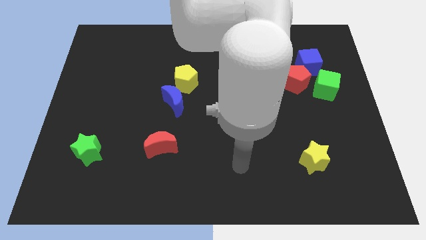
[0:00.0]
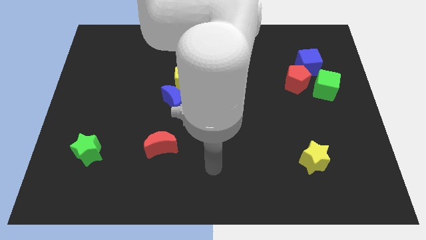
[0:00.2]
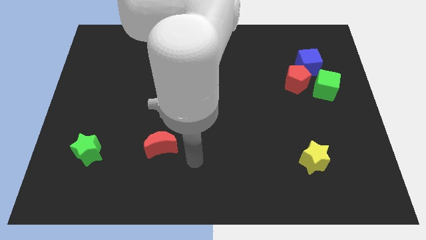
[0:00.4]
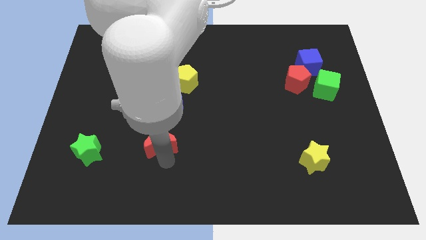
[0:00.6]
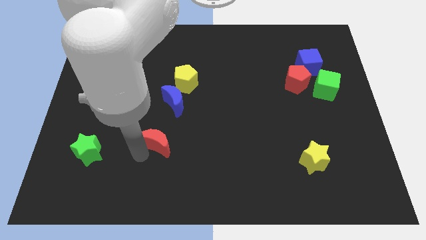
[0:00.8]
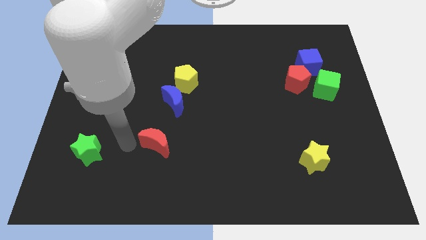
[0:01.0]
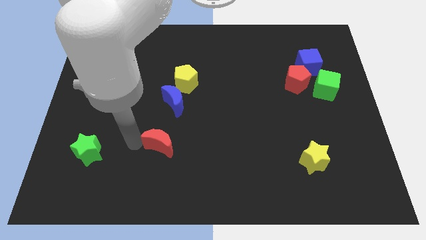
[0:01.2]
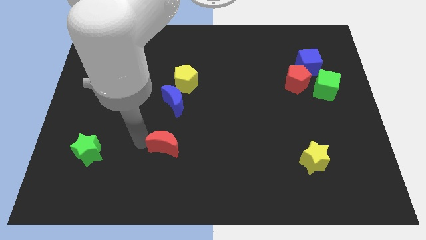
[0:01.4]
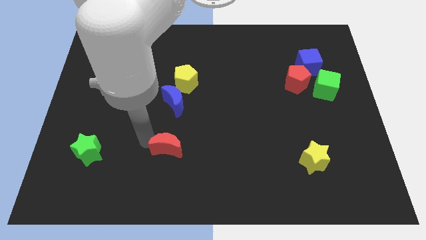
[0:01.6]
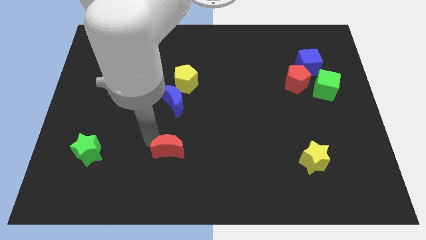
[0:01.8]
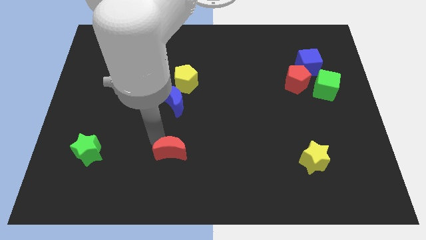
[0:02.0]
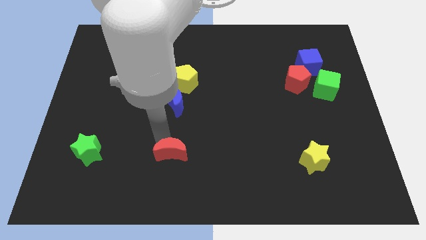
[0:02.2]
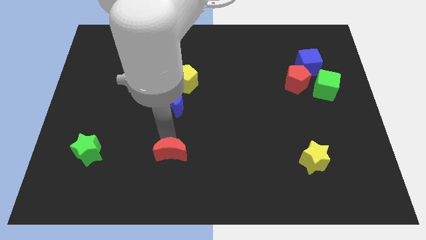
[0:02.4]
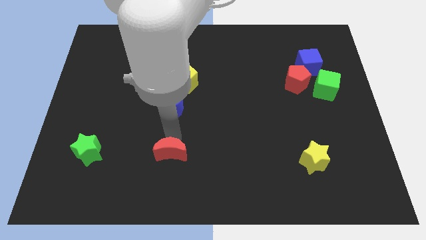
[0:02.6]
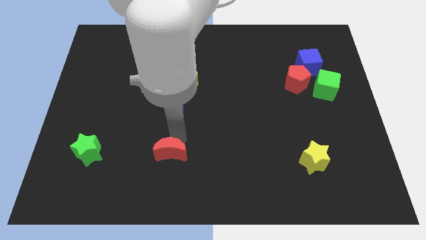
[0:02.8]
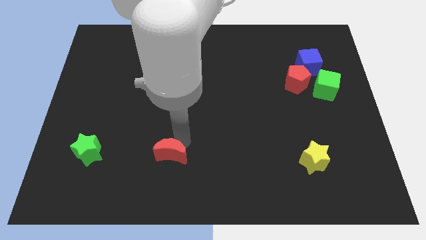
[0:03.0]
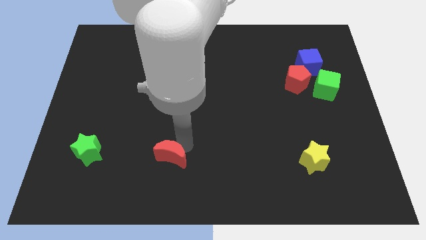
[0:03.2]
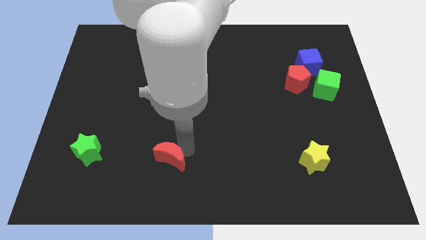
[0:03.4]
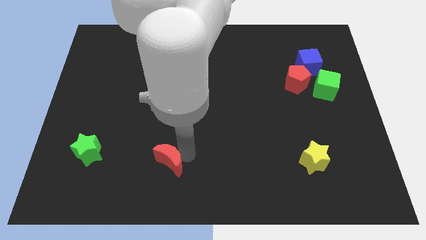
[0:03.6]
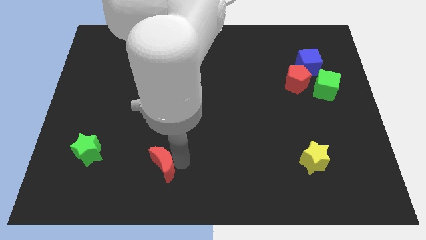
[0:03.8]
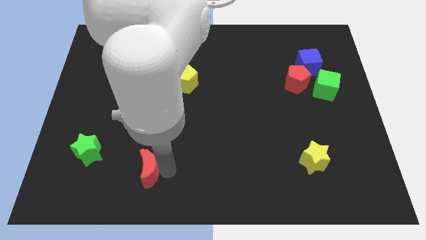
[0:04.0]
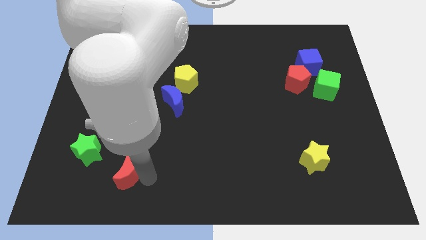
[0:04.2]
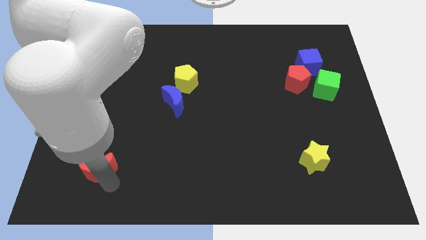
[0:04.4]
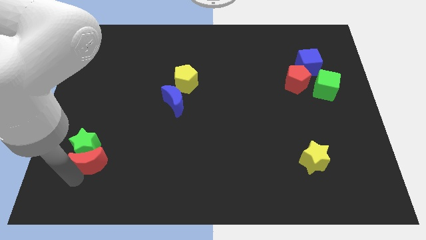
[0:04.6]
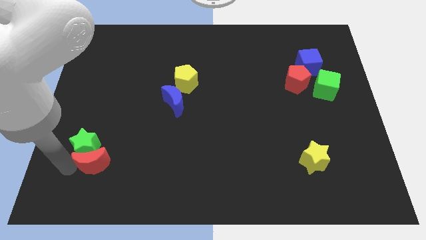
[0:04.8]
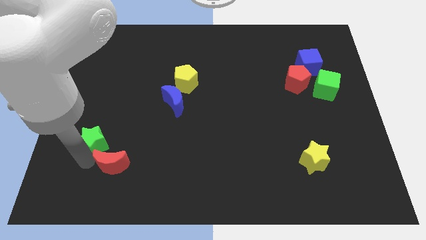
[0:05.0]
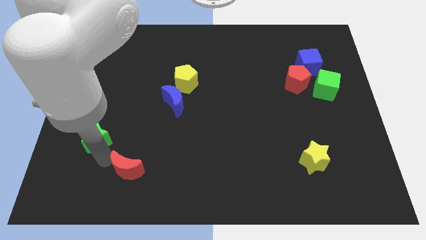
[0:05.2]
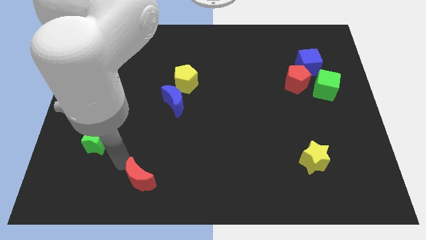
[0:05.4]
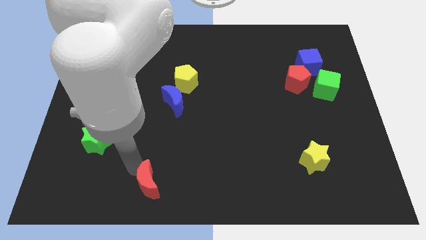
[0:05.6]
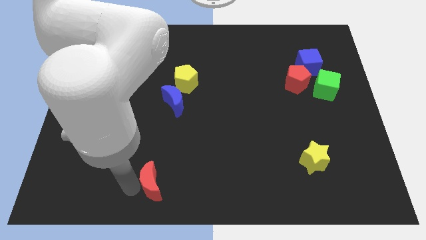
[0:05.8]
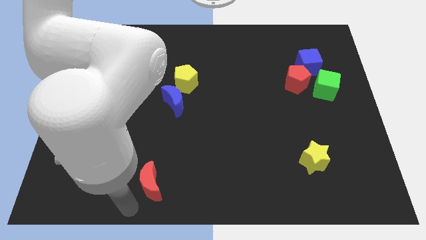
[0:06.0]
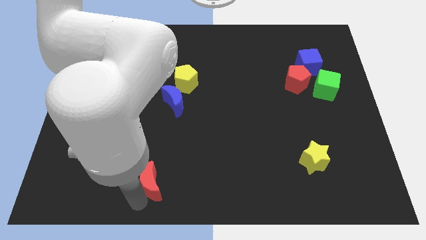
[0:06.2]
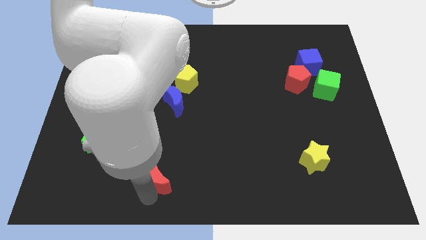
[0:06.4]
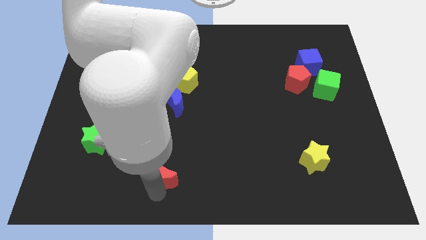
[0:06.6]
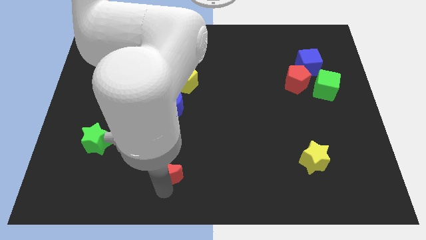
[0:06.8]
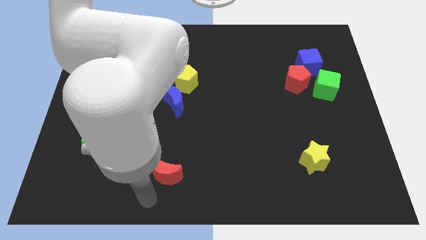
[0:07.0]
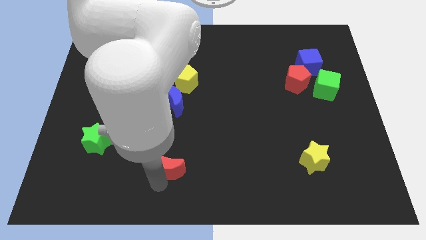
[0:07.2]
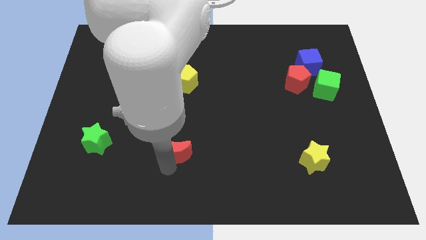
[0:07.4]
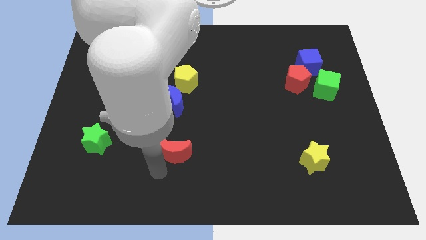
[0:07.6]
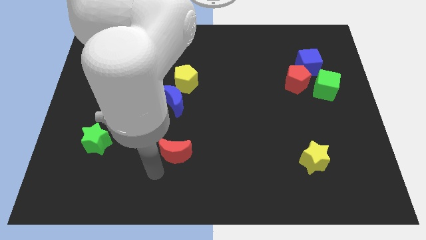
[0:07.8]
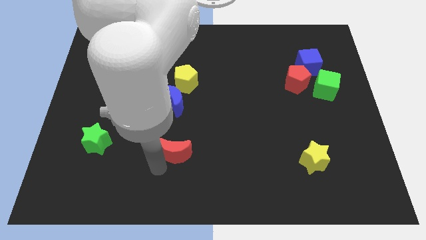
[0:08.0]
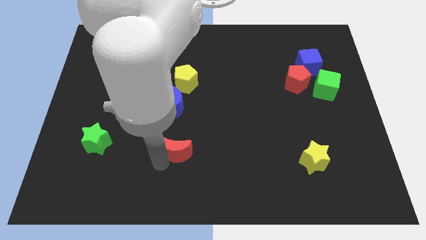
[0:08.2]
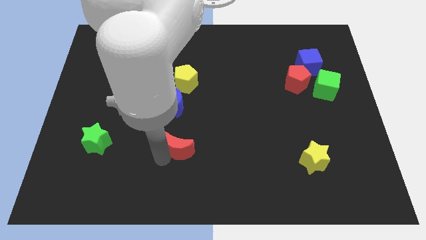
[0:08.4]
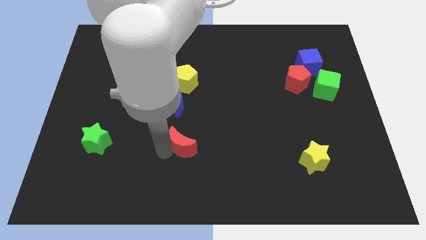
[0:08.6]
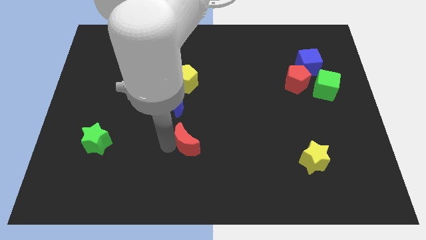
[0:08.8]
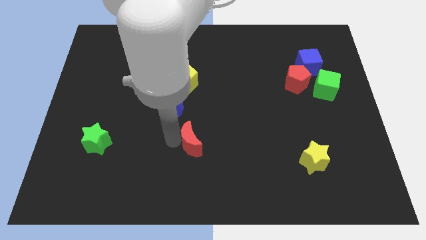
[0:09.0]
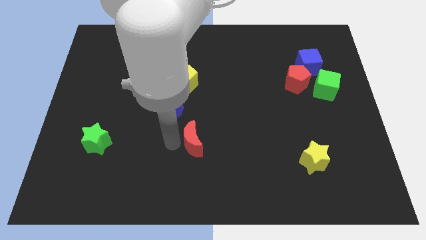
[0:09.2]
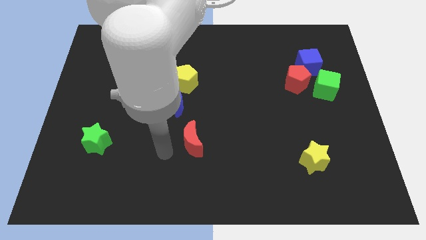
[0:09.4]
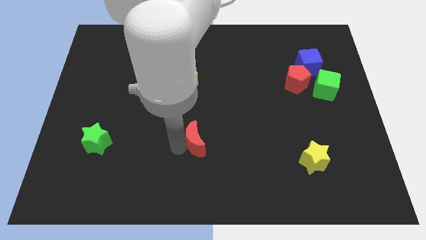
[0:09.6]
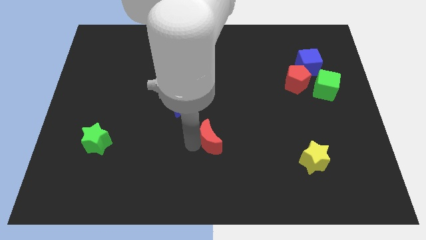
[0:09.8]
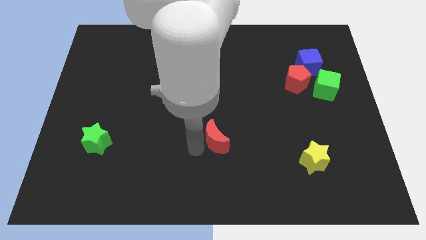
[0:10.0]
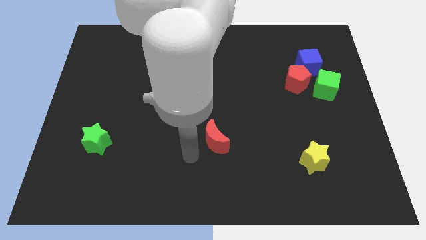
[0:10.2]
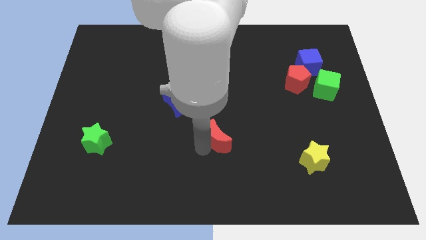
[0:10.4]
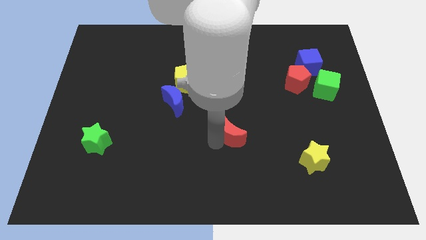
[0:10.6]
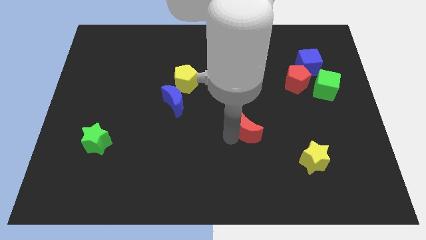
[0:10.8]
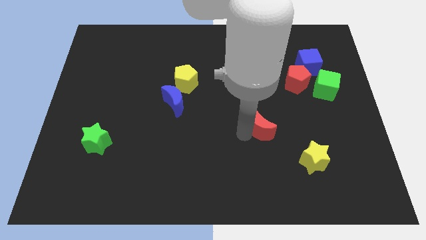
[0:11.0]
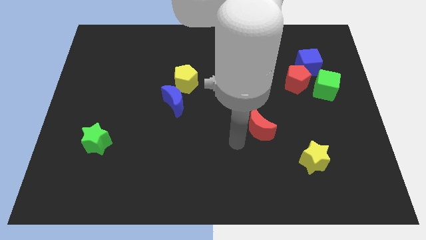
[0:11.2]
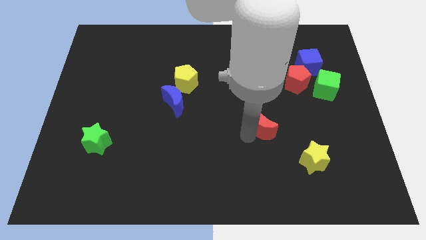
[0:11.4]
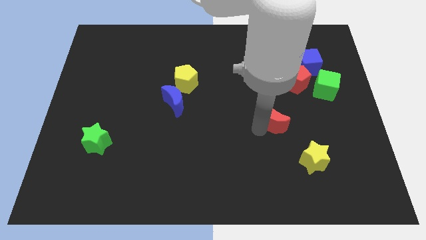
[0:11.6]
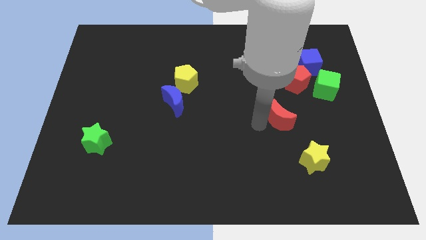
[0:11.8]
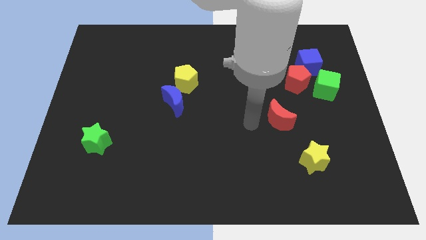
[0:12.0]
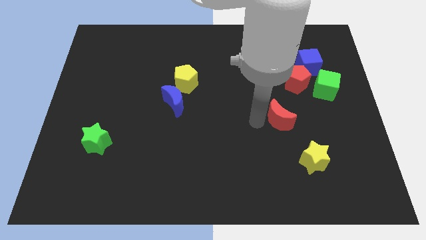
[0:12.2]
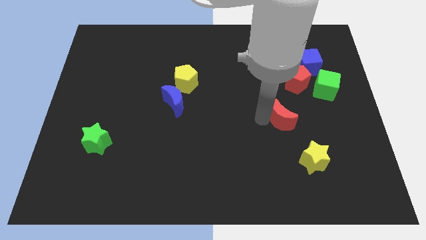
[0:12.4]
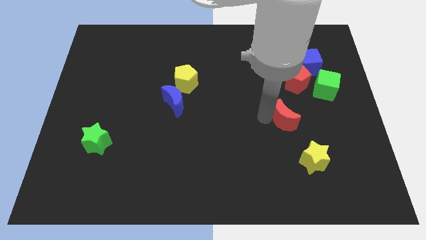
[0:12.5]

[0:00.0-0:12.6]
slide the red moon to the bottom side of the red pentagon
